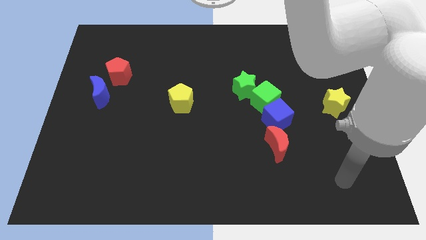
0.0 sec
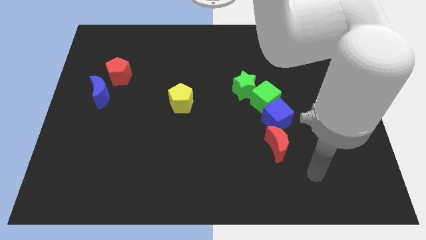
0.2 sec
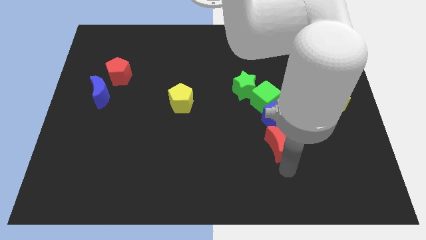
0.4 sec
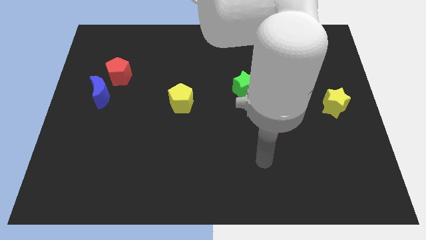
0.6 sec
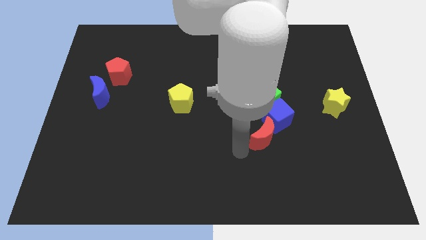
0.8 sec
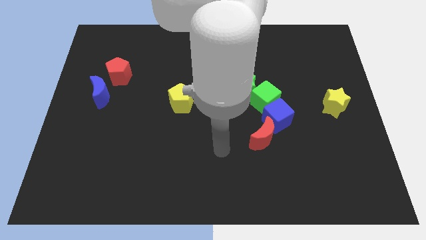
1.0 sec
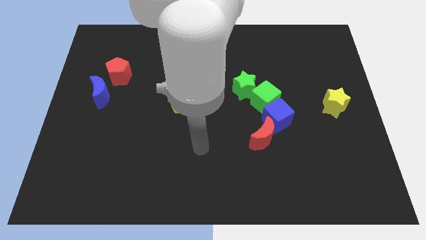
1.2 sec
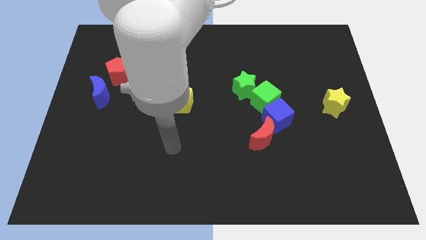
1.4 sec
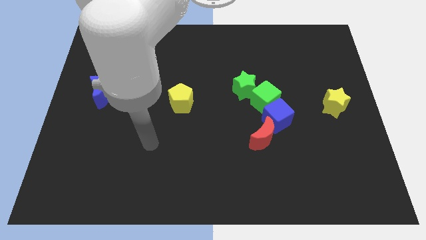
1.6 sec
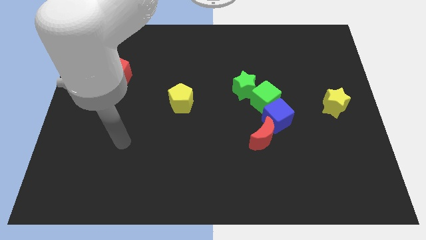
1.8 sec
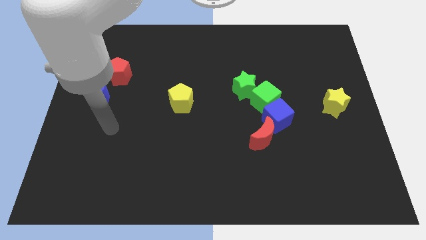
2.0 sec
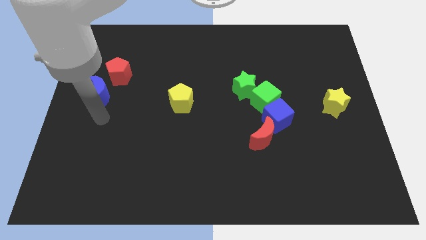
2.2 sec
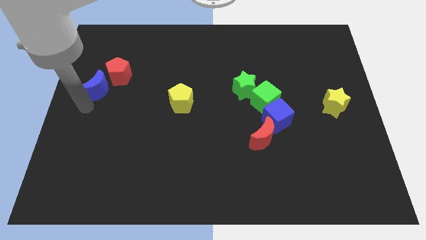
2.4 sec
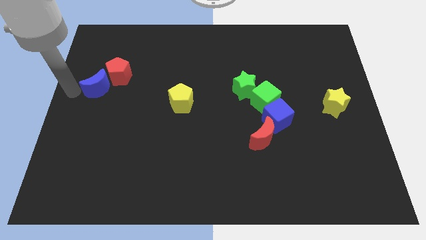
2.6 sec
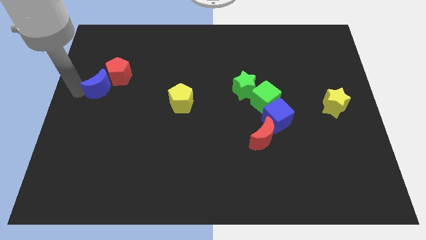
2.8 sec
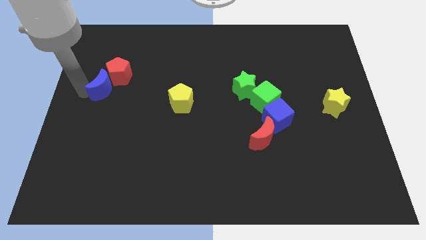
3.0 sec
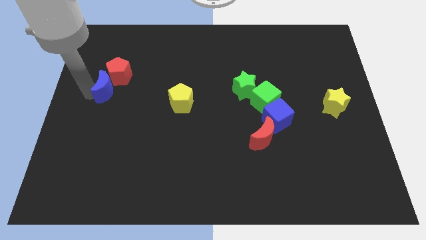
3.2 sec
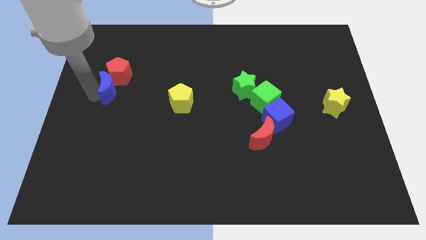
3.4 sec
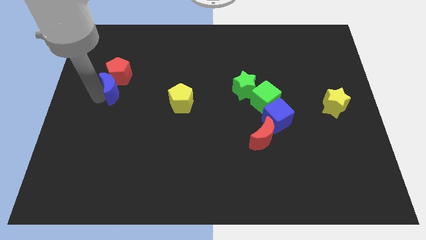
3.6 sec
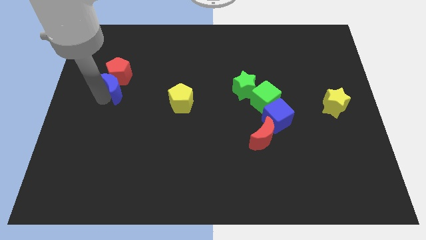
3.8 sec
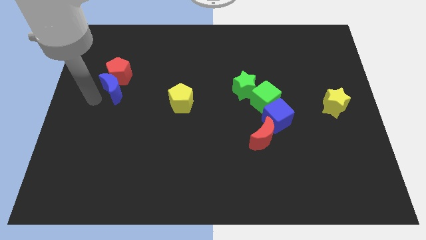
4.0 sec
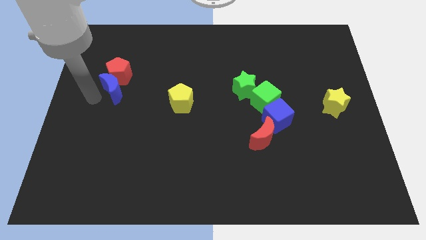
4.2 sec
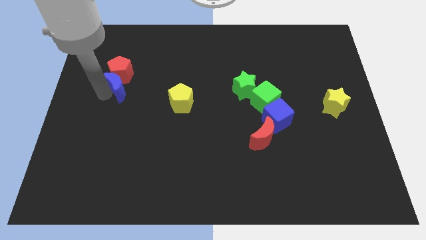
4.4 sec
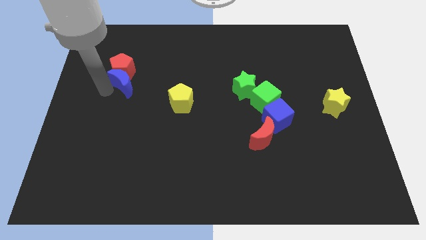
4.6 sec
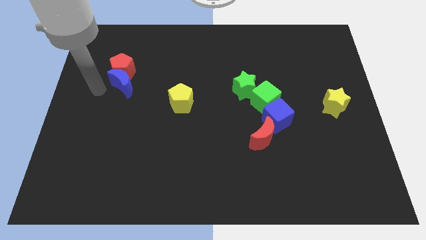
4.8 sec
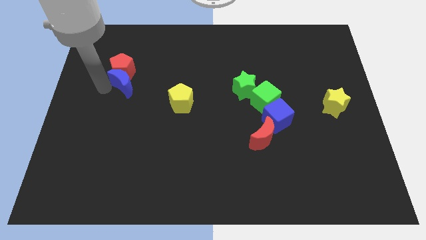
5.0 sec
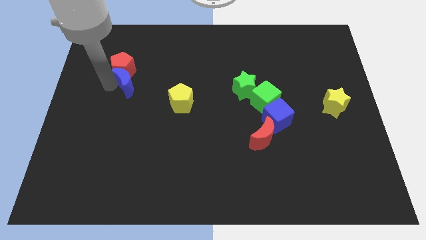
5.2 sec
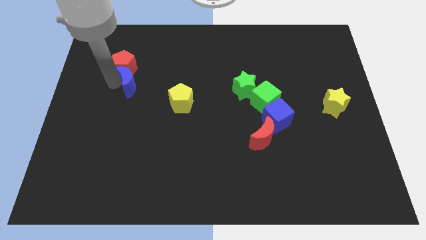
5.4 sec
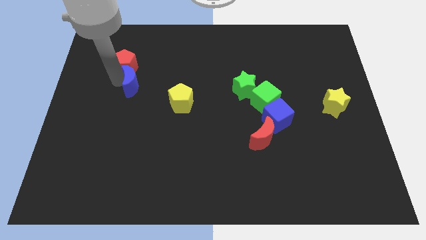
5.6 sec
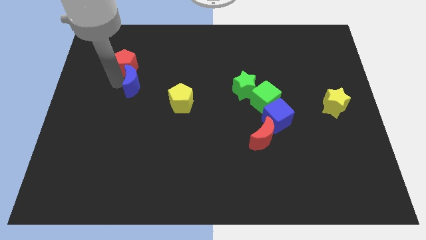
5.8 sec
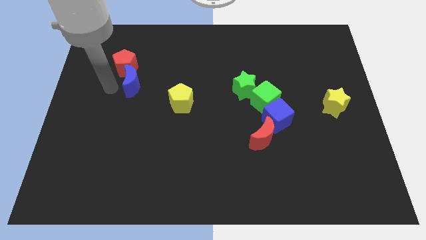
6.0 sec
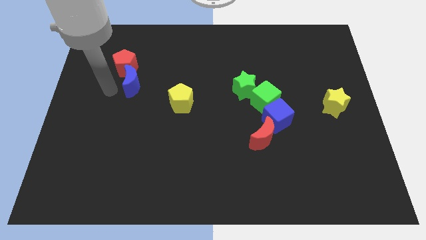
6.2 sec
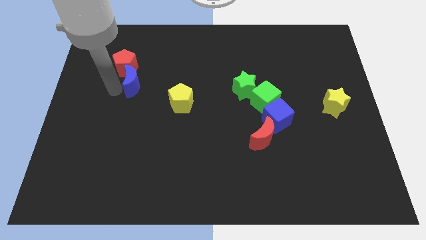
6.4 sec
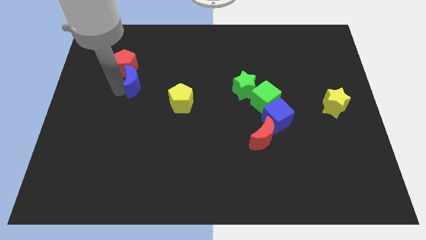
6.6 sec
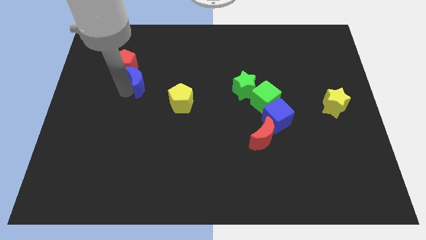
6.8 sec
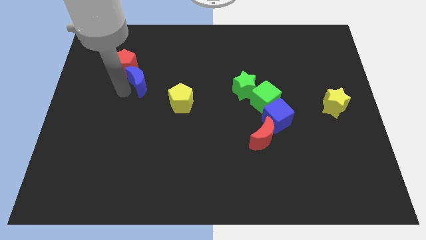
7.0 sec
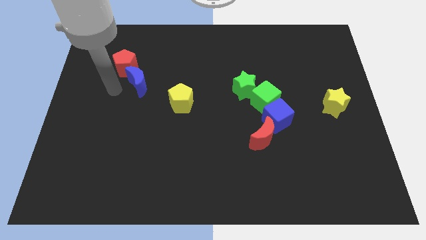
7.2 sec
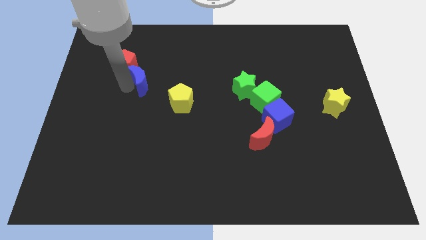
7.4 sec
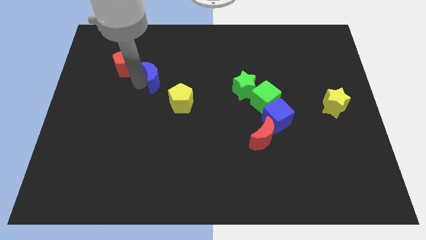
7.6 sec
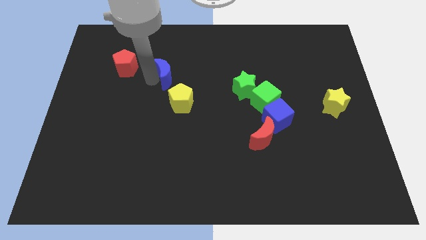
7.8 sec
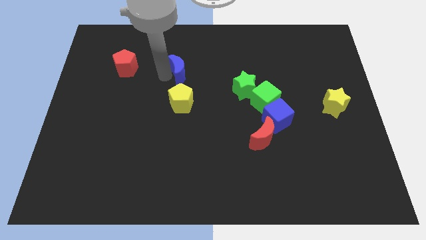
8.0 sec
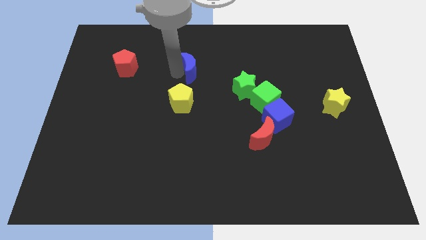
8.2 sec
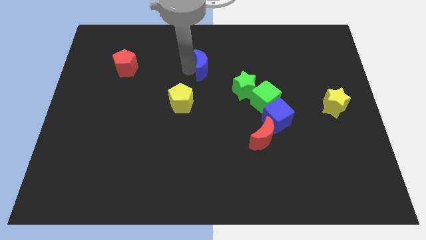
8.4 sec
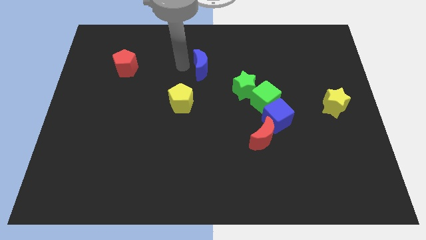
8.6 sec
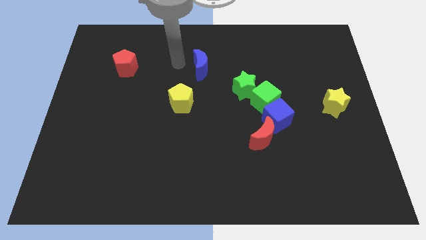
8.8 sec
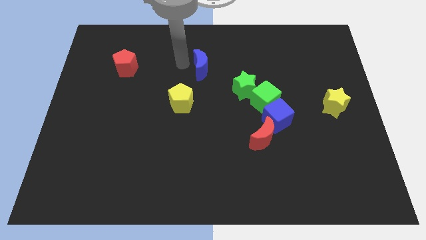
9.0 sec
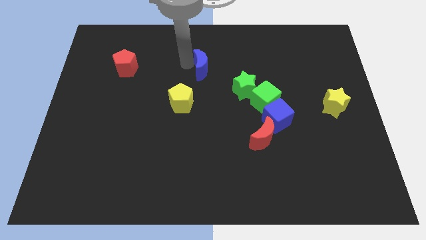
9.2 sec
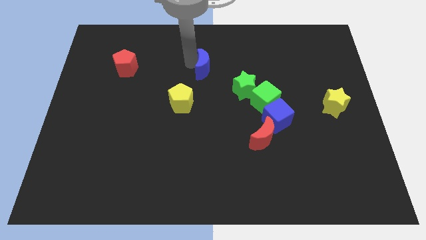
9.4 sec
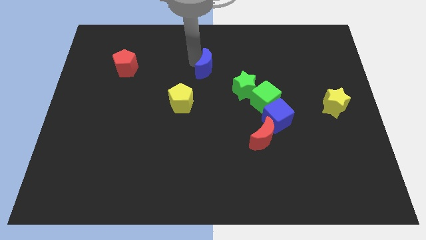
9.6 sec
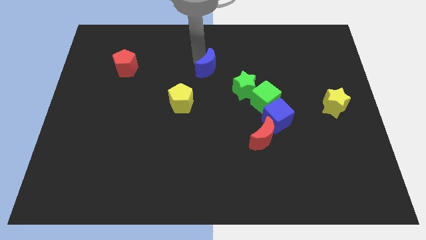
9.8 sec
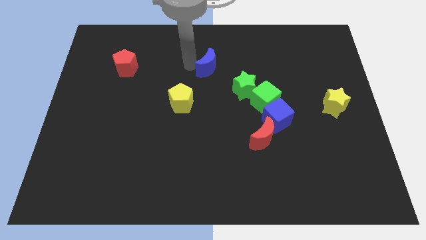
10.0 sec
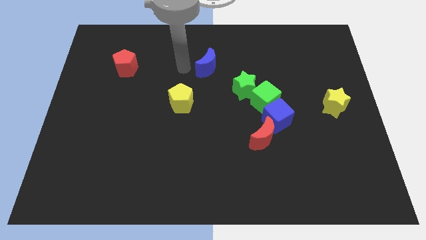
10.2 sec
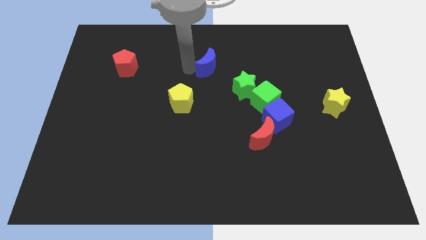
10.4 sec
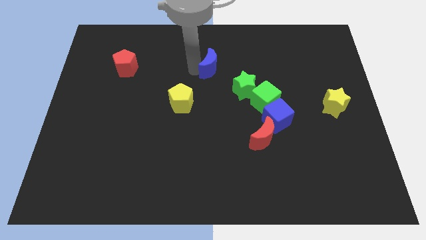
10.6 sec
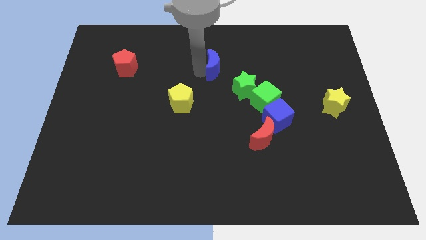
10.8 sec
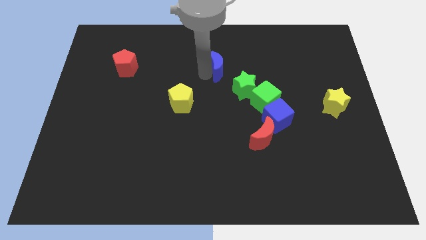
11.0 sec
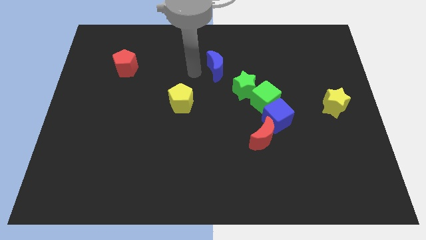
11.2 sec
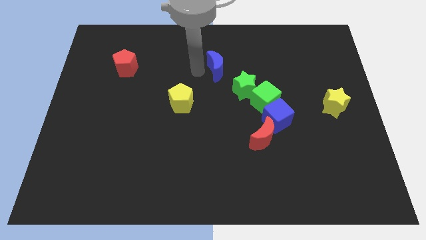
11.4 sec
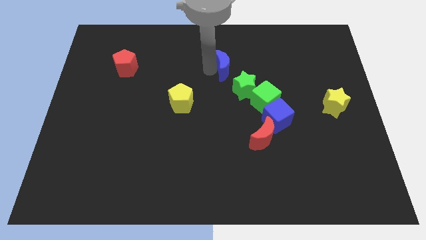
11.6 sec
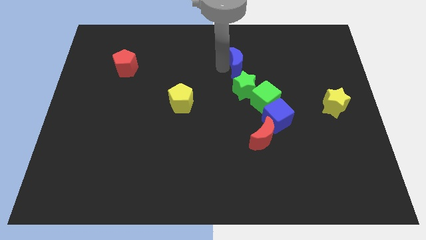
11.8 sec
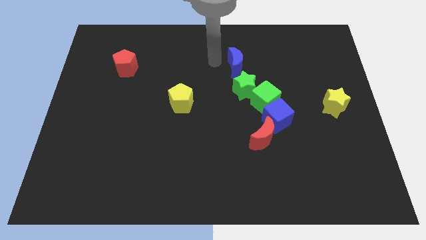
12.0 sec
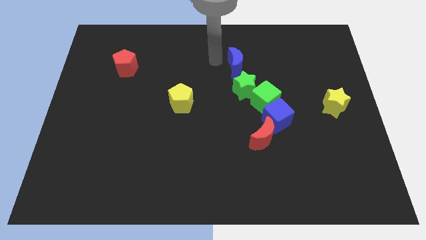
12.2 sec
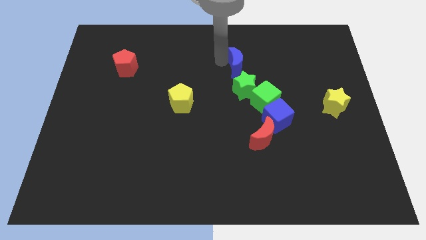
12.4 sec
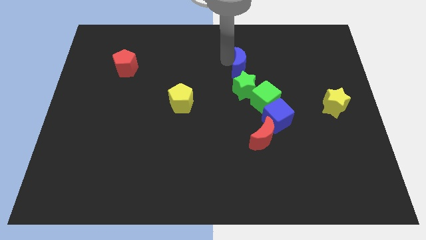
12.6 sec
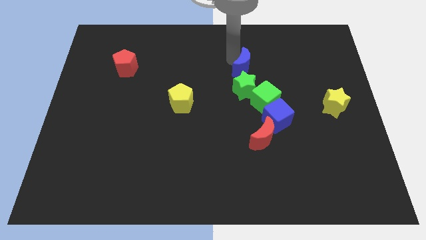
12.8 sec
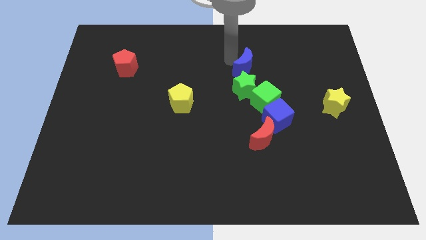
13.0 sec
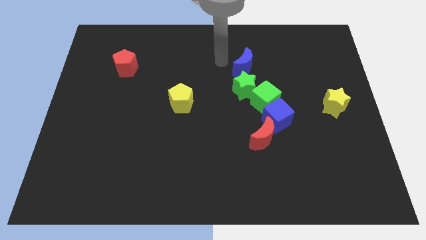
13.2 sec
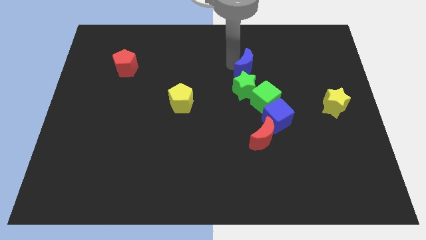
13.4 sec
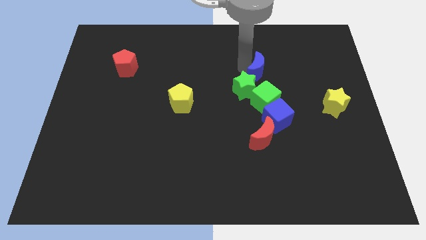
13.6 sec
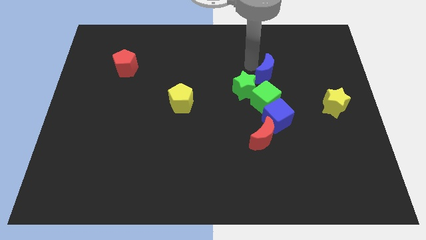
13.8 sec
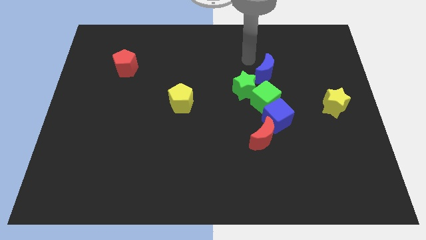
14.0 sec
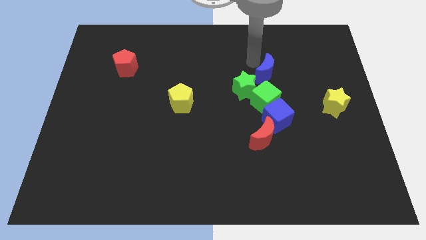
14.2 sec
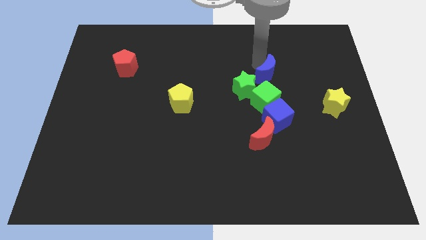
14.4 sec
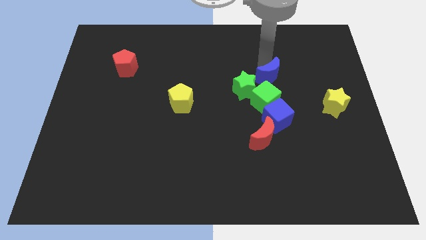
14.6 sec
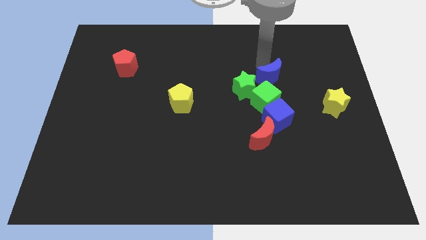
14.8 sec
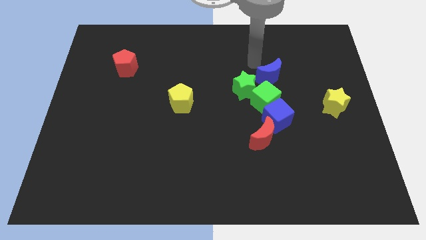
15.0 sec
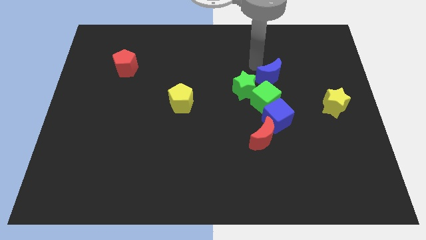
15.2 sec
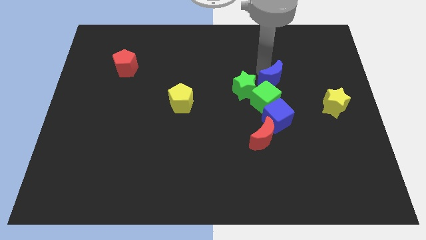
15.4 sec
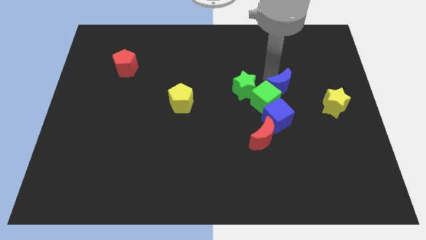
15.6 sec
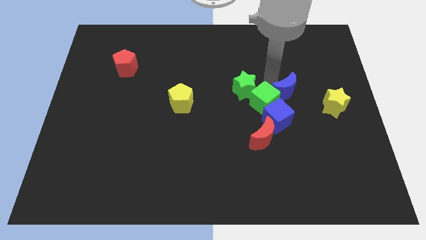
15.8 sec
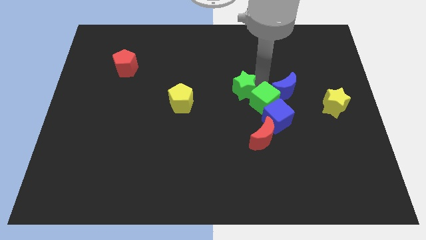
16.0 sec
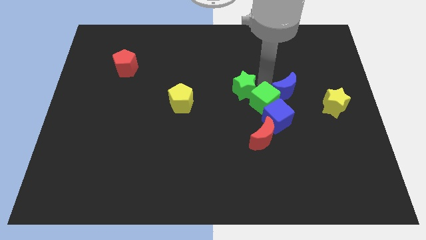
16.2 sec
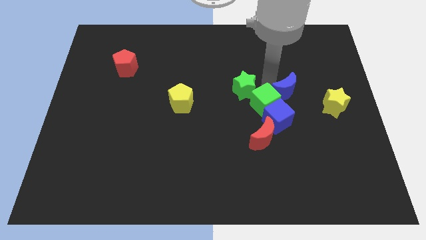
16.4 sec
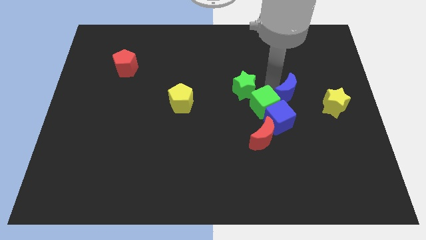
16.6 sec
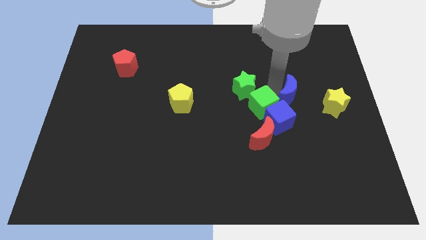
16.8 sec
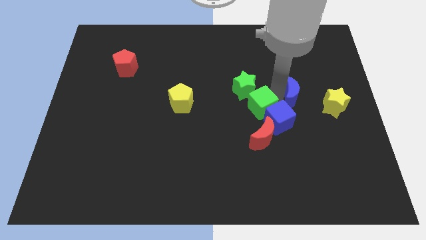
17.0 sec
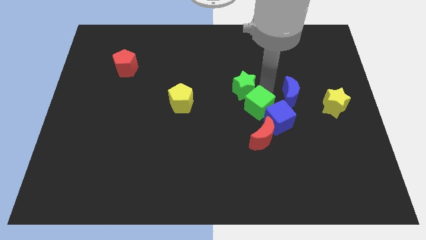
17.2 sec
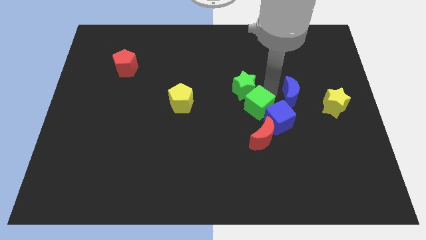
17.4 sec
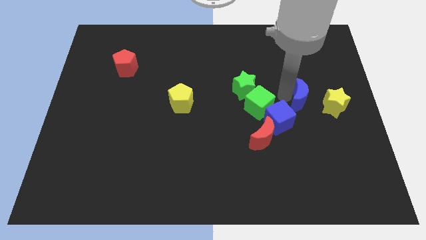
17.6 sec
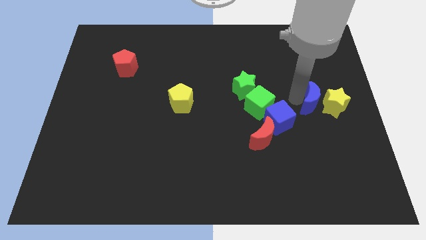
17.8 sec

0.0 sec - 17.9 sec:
move the blue moon next to the yellow star
